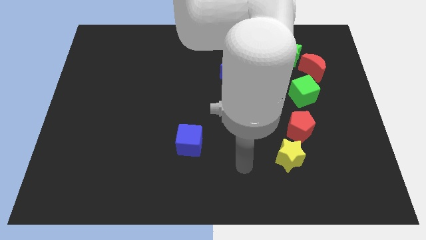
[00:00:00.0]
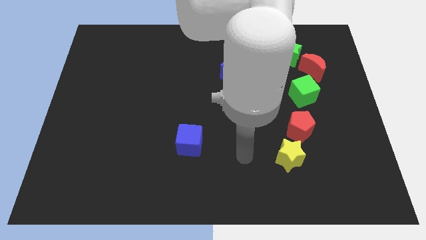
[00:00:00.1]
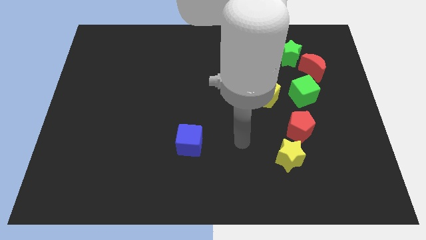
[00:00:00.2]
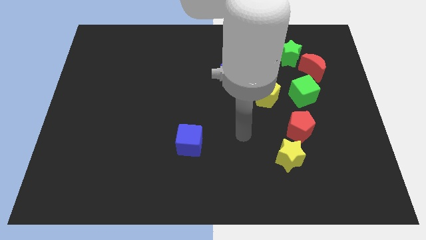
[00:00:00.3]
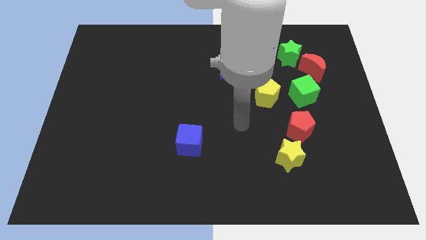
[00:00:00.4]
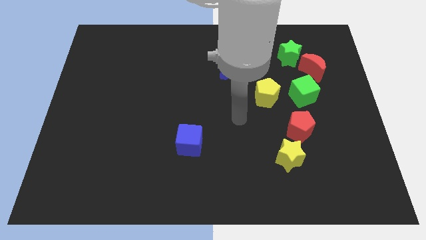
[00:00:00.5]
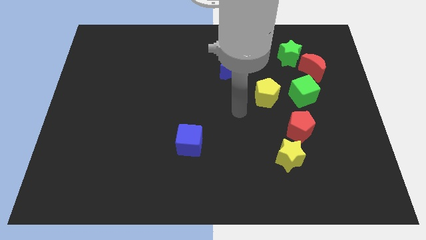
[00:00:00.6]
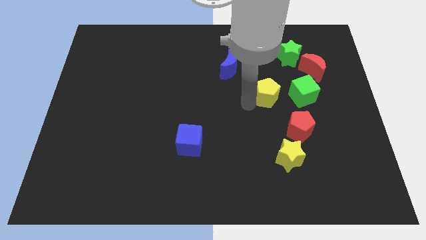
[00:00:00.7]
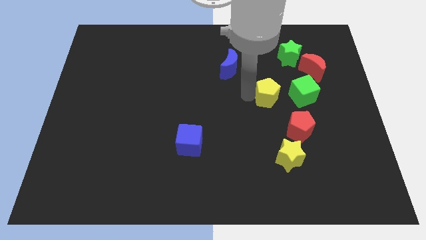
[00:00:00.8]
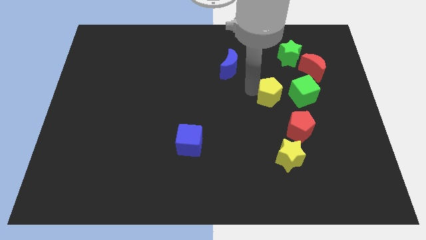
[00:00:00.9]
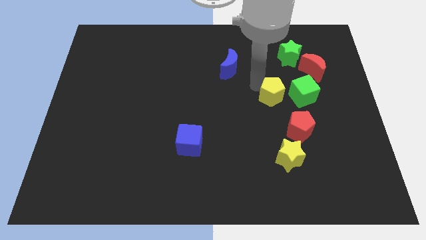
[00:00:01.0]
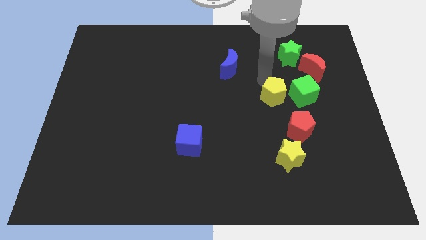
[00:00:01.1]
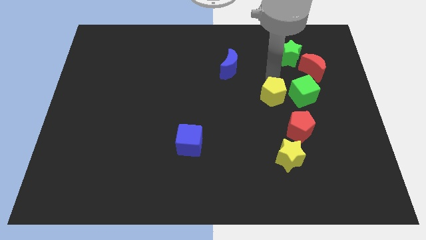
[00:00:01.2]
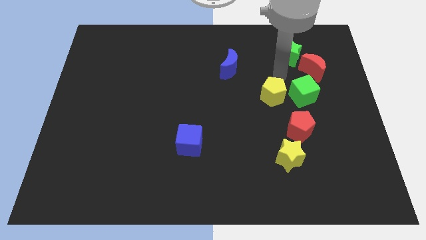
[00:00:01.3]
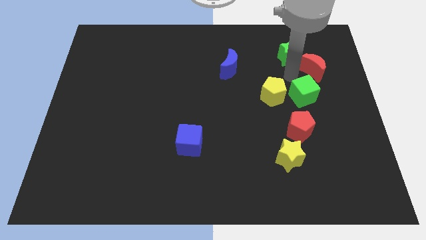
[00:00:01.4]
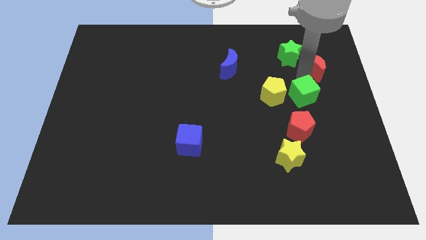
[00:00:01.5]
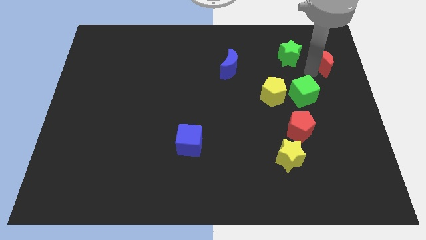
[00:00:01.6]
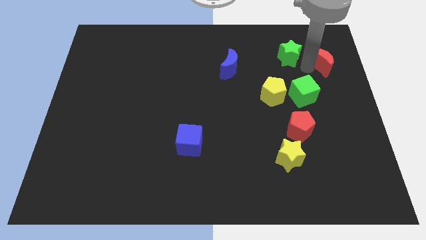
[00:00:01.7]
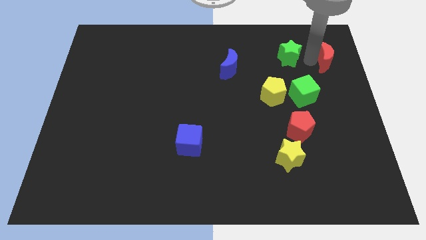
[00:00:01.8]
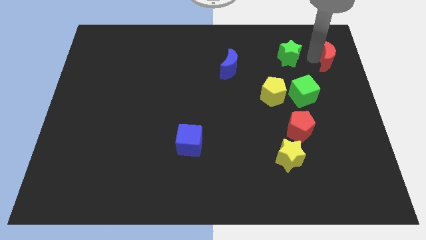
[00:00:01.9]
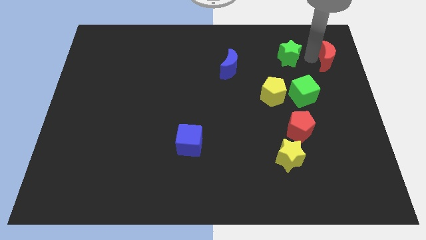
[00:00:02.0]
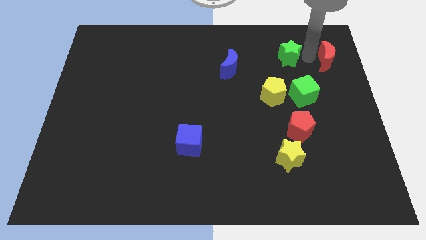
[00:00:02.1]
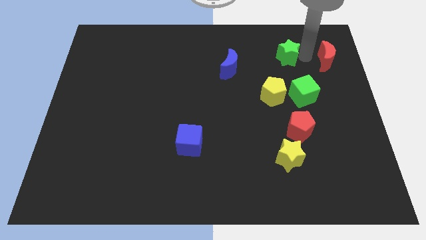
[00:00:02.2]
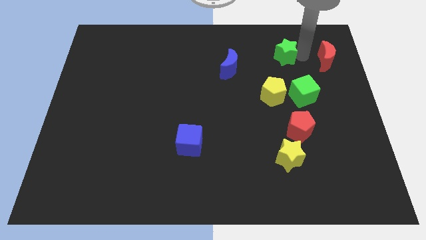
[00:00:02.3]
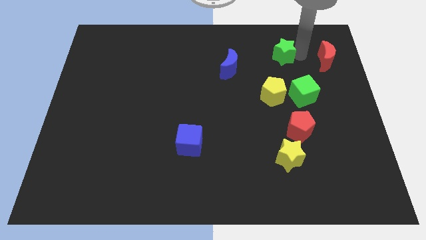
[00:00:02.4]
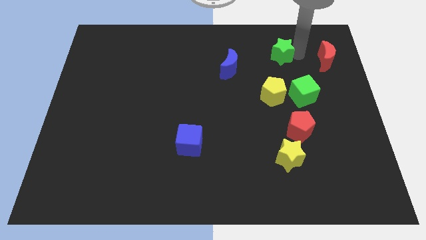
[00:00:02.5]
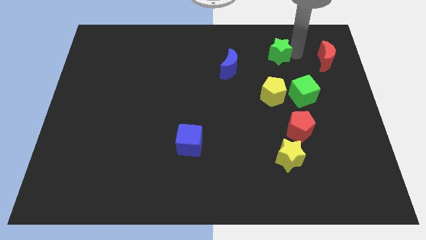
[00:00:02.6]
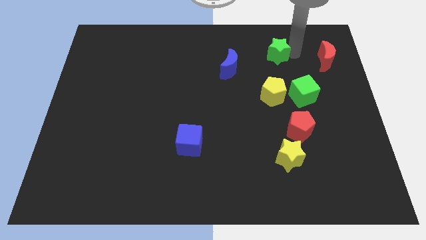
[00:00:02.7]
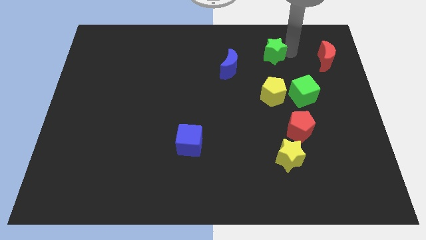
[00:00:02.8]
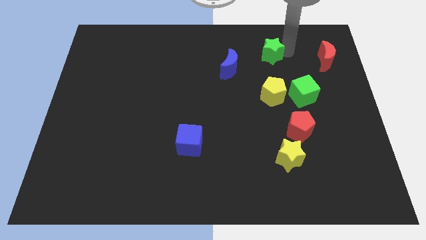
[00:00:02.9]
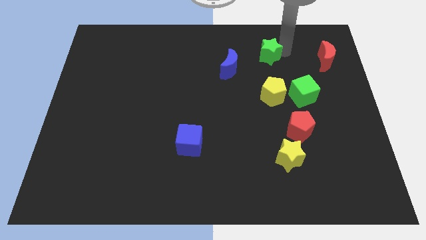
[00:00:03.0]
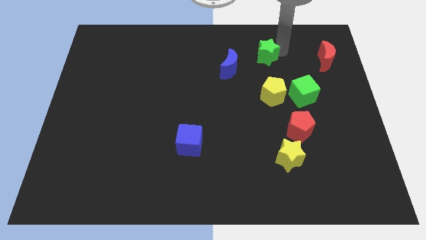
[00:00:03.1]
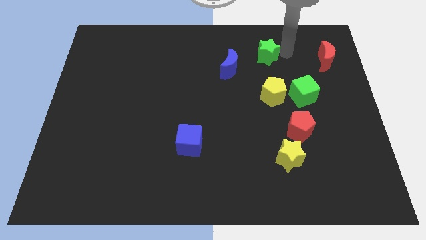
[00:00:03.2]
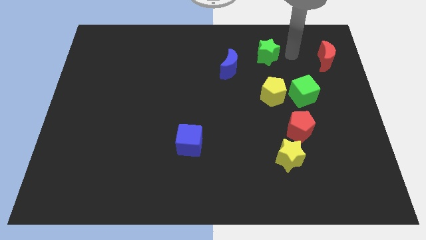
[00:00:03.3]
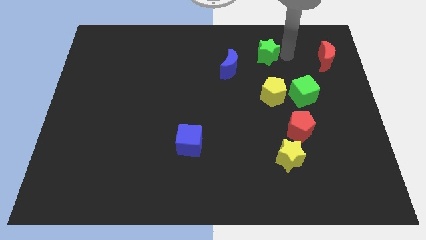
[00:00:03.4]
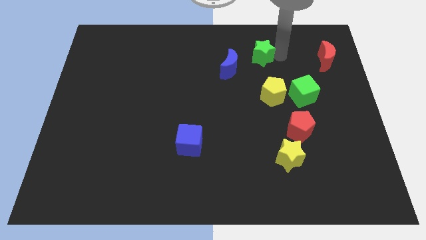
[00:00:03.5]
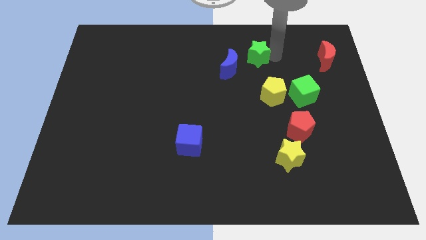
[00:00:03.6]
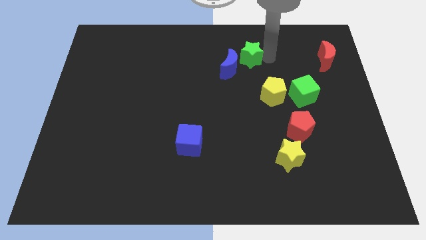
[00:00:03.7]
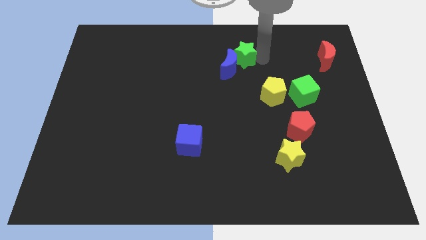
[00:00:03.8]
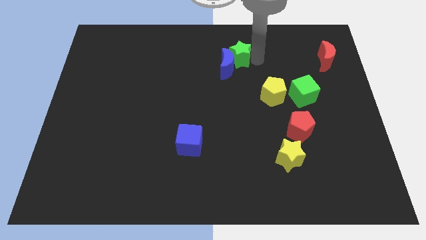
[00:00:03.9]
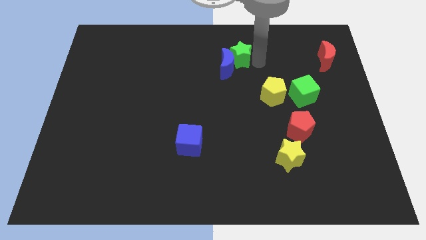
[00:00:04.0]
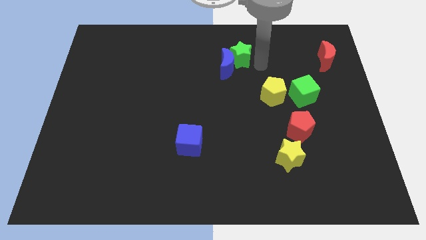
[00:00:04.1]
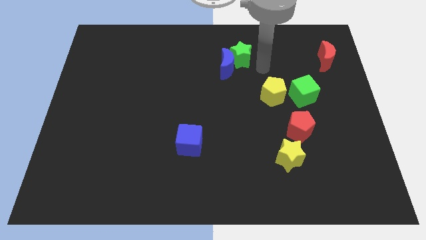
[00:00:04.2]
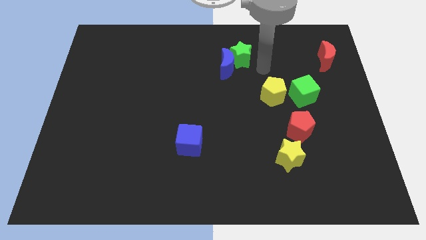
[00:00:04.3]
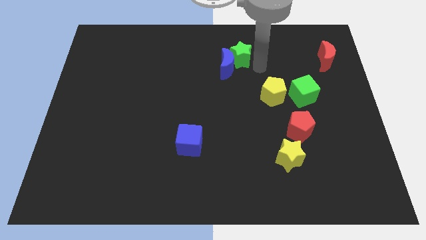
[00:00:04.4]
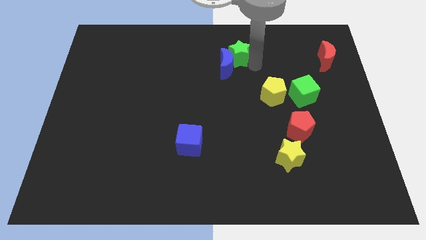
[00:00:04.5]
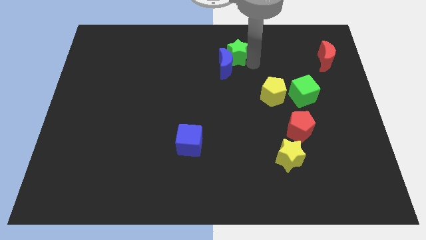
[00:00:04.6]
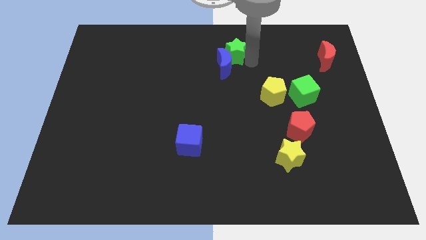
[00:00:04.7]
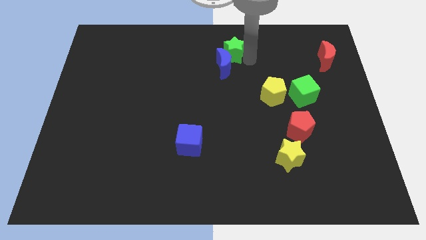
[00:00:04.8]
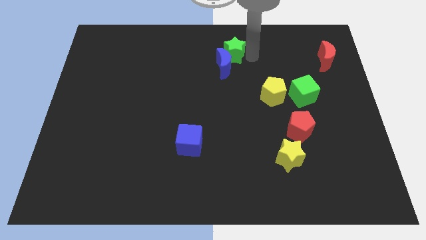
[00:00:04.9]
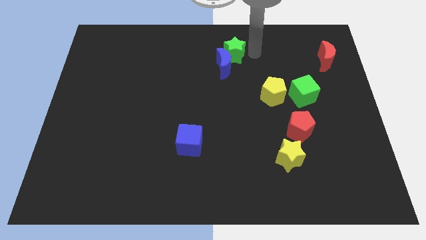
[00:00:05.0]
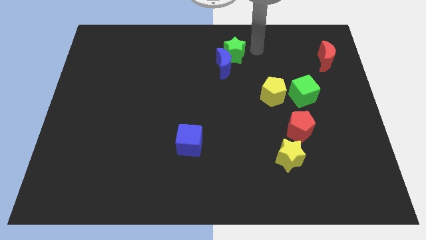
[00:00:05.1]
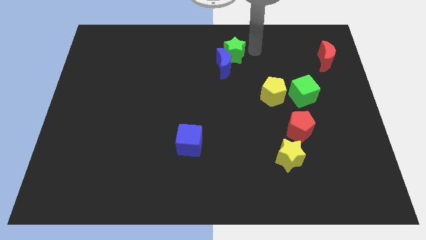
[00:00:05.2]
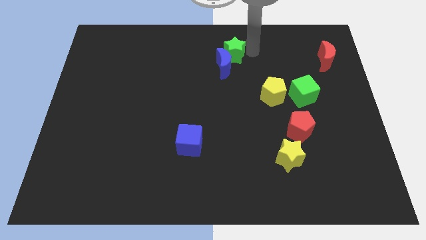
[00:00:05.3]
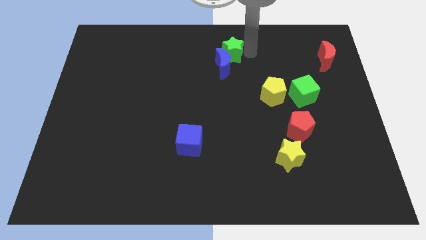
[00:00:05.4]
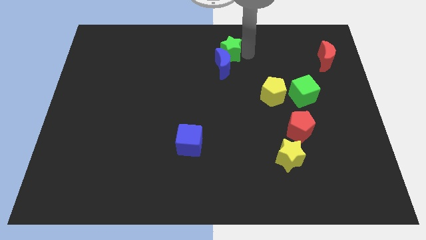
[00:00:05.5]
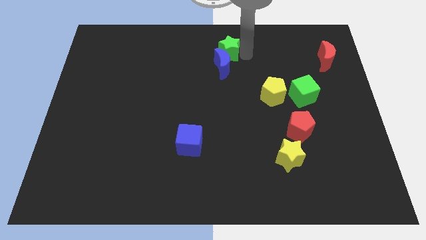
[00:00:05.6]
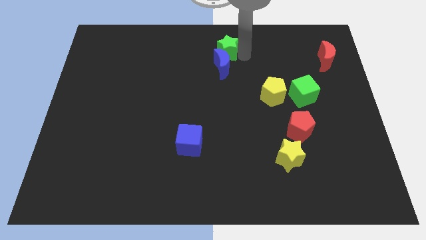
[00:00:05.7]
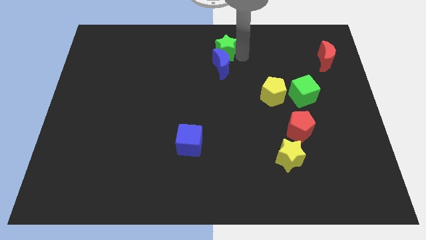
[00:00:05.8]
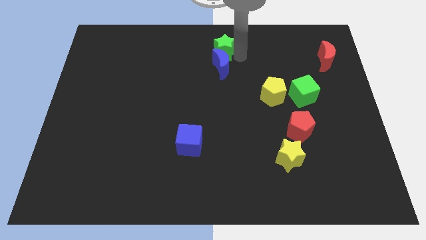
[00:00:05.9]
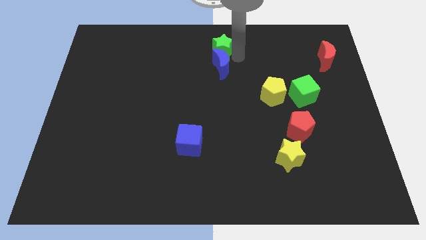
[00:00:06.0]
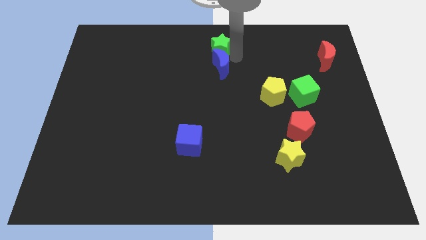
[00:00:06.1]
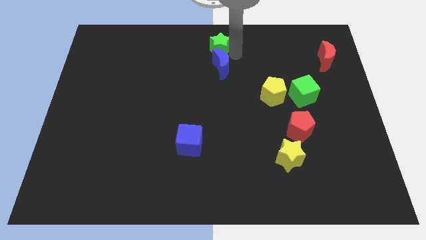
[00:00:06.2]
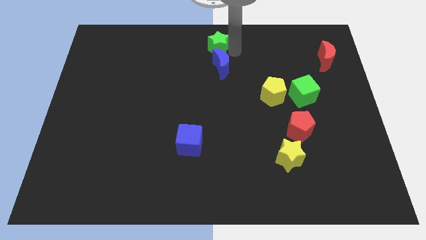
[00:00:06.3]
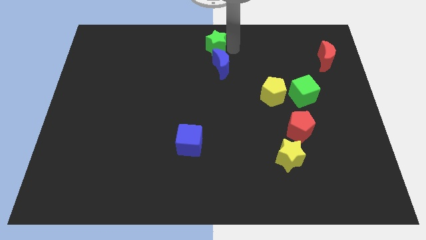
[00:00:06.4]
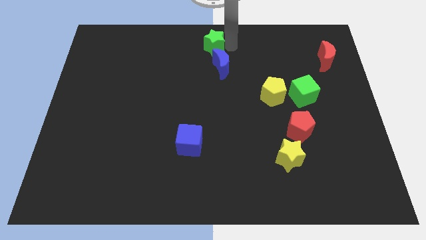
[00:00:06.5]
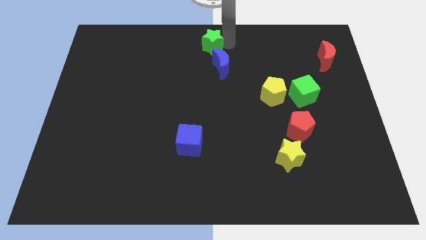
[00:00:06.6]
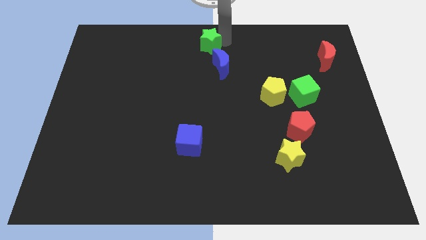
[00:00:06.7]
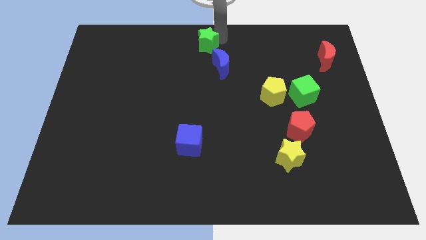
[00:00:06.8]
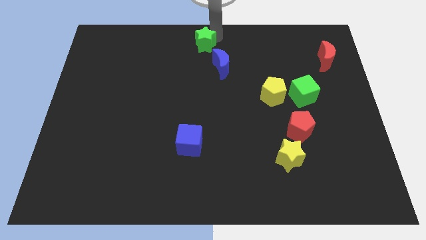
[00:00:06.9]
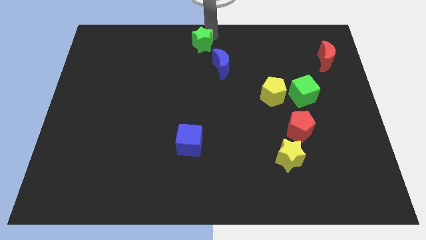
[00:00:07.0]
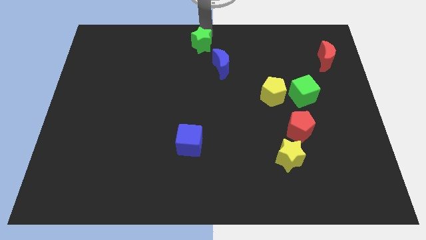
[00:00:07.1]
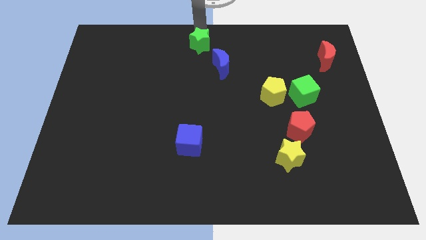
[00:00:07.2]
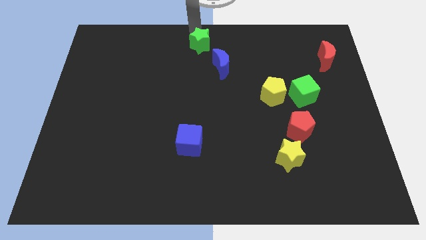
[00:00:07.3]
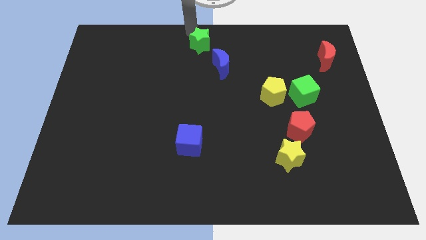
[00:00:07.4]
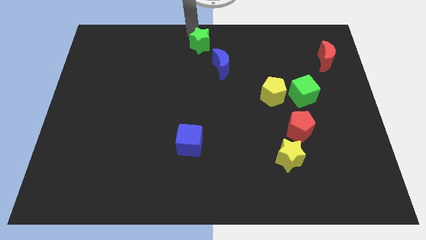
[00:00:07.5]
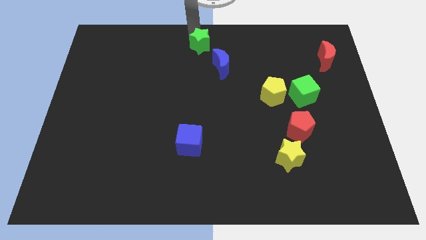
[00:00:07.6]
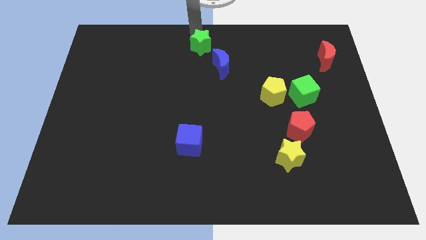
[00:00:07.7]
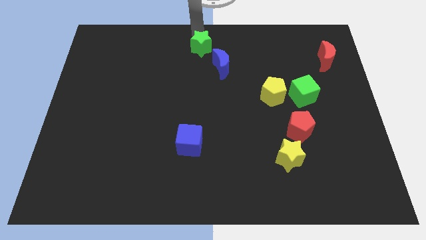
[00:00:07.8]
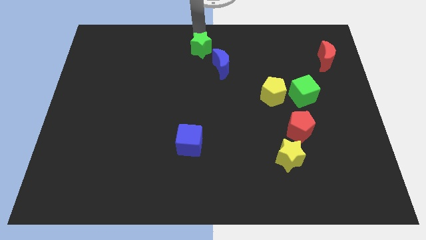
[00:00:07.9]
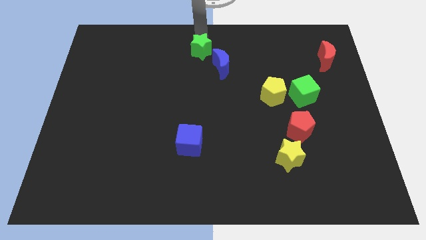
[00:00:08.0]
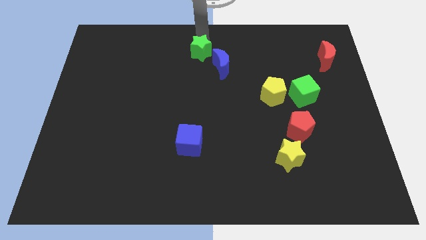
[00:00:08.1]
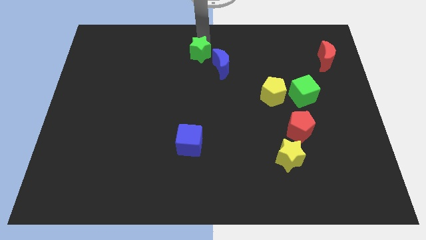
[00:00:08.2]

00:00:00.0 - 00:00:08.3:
move the green star to the left of the blue moon
